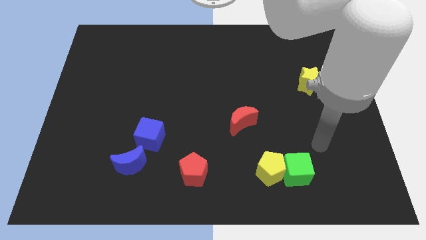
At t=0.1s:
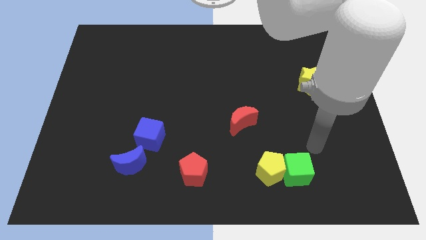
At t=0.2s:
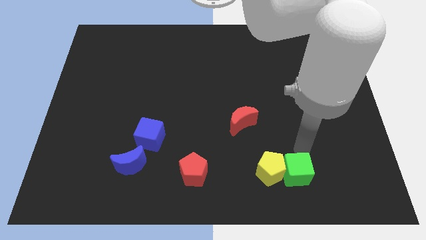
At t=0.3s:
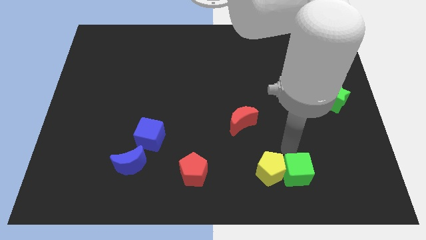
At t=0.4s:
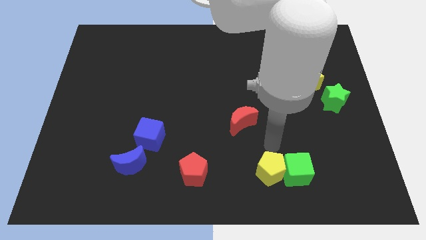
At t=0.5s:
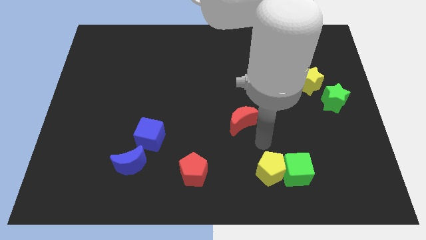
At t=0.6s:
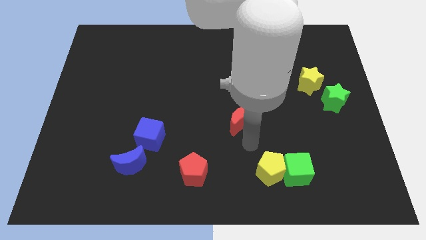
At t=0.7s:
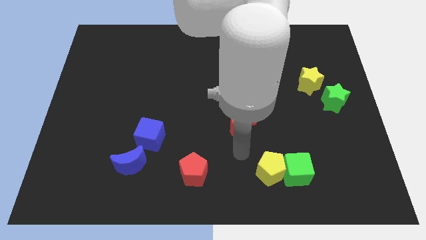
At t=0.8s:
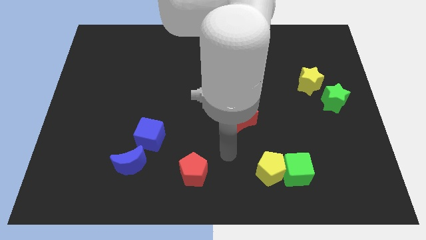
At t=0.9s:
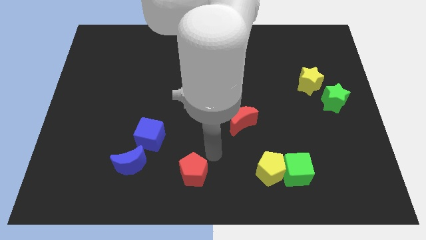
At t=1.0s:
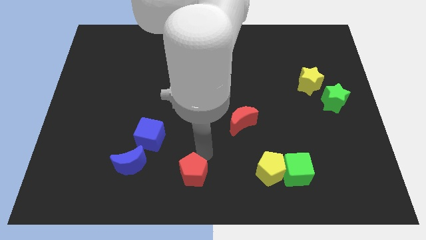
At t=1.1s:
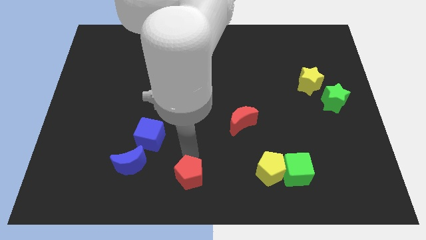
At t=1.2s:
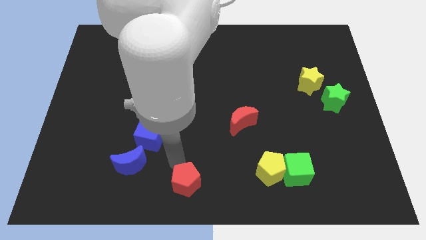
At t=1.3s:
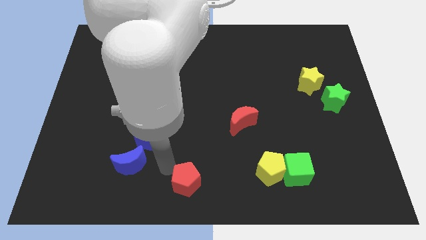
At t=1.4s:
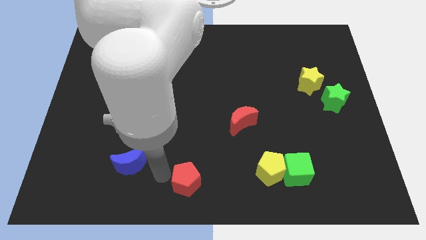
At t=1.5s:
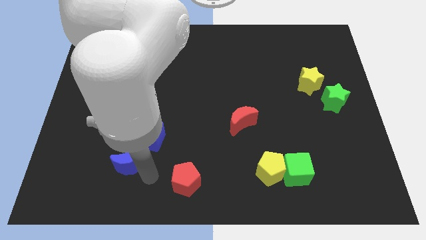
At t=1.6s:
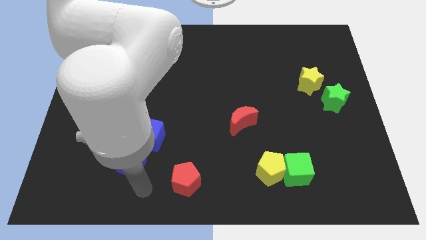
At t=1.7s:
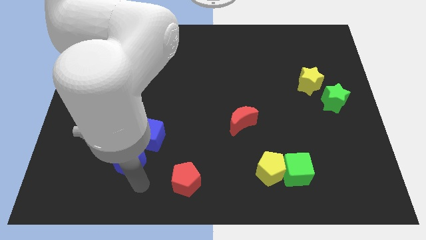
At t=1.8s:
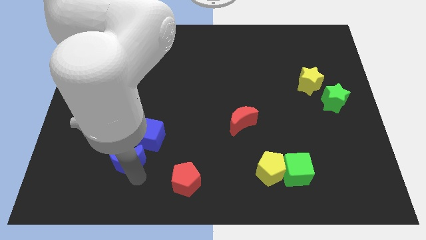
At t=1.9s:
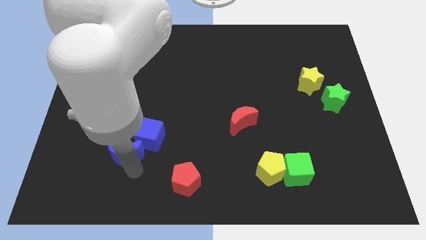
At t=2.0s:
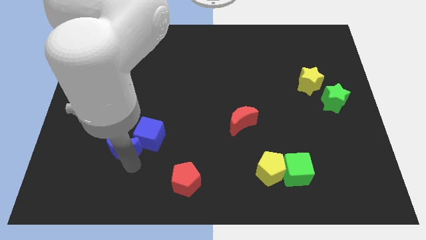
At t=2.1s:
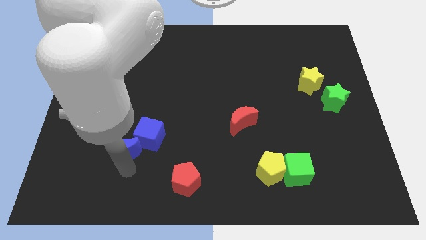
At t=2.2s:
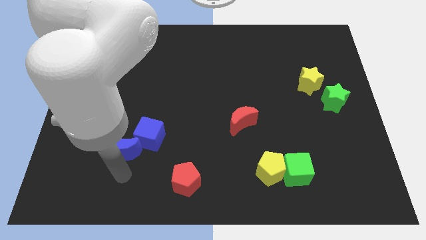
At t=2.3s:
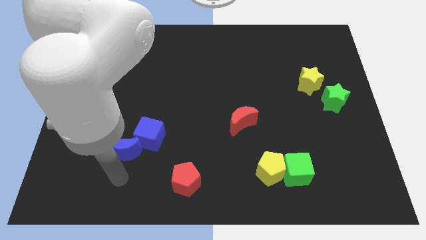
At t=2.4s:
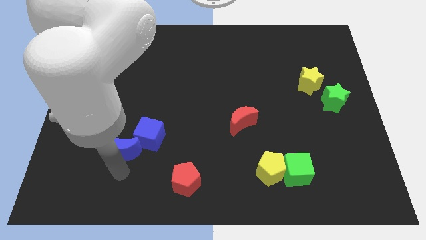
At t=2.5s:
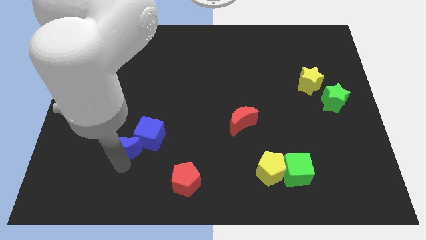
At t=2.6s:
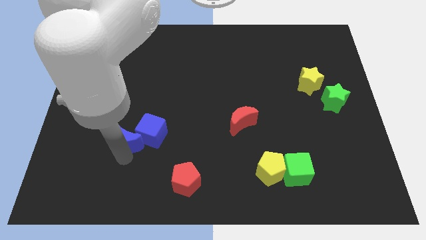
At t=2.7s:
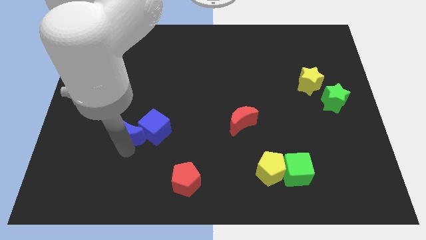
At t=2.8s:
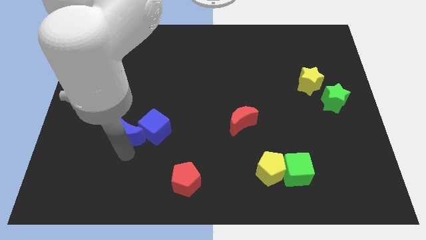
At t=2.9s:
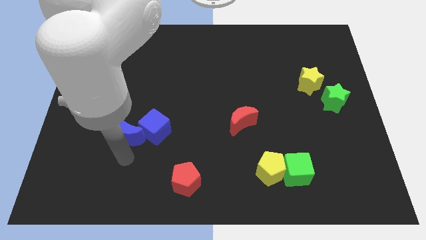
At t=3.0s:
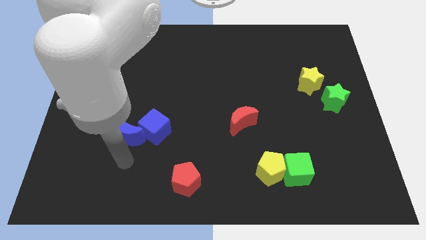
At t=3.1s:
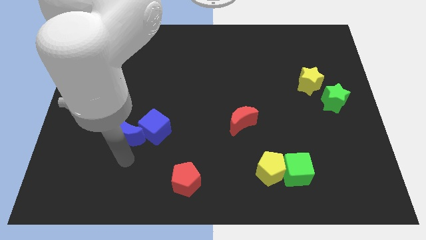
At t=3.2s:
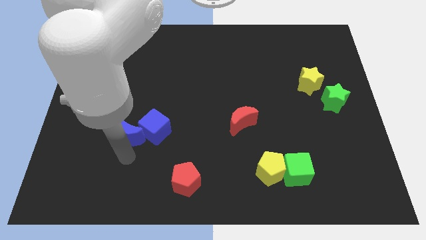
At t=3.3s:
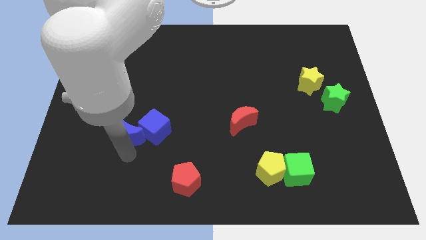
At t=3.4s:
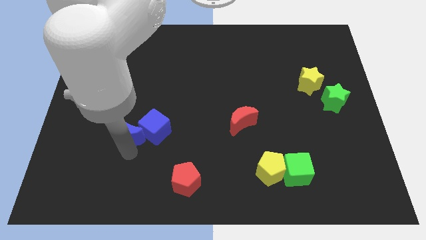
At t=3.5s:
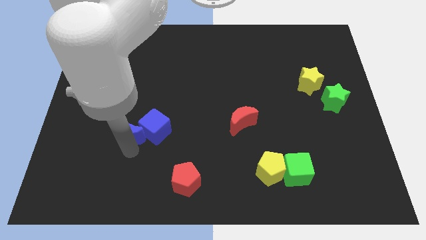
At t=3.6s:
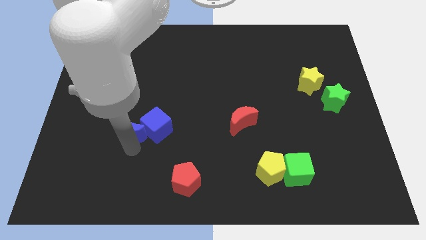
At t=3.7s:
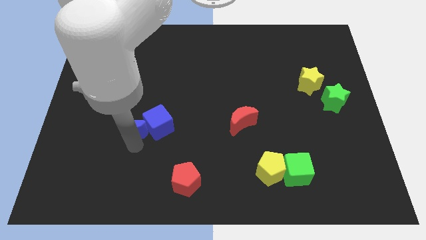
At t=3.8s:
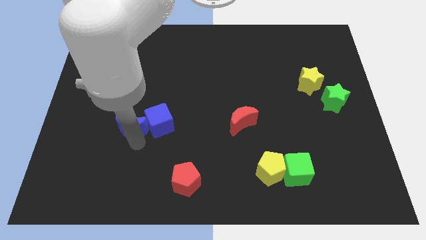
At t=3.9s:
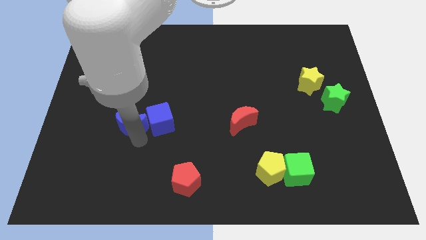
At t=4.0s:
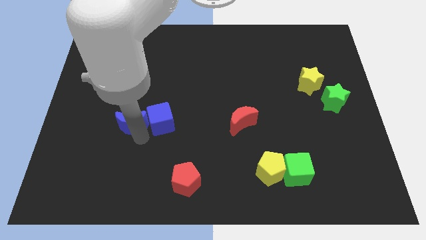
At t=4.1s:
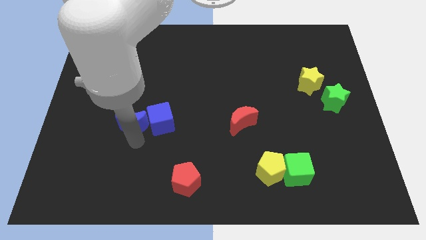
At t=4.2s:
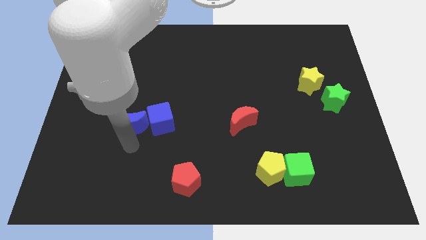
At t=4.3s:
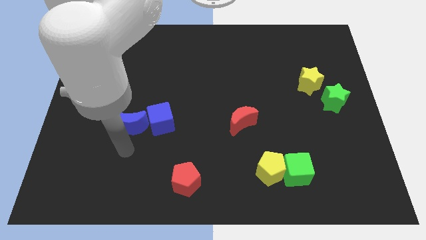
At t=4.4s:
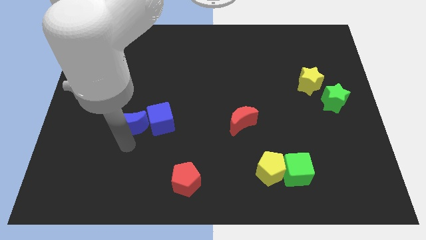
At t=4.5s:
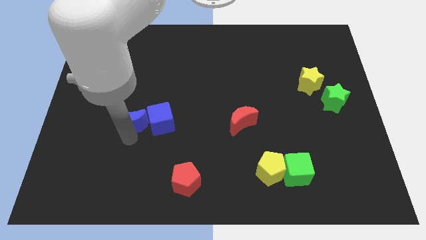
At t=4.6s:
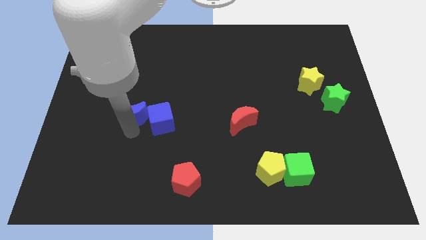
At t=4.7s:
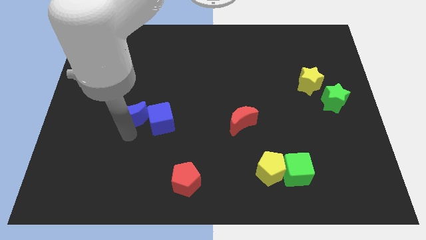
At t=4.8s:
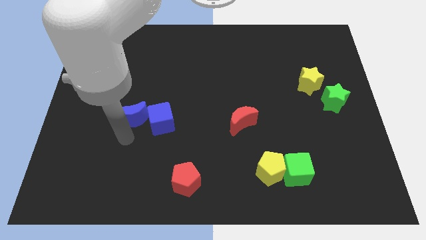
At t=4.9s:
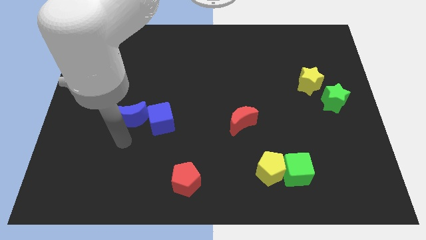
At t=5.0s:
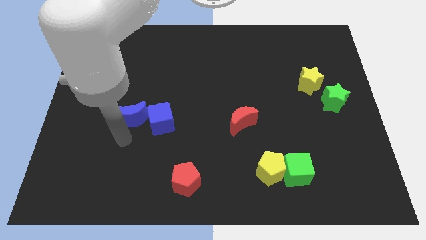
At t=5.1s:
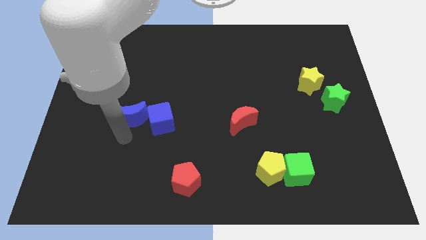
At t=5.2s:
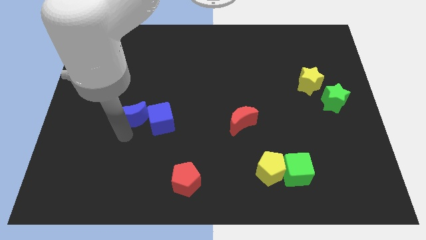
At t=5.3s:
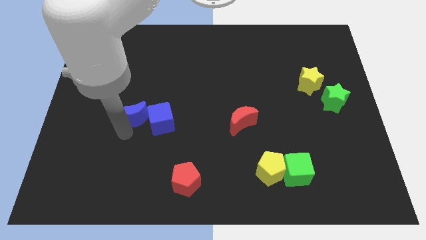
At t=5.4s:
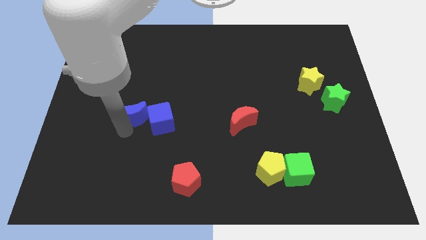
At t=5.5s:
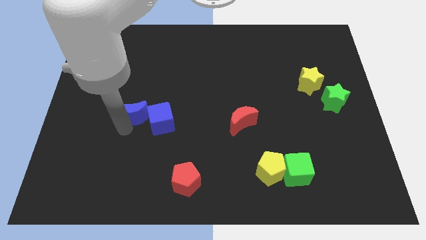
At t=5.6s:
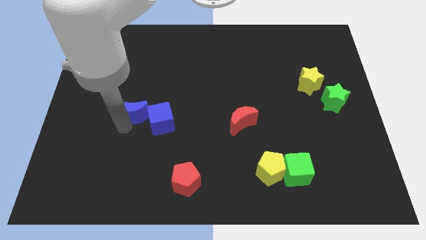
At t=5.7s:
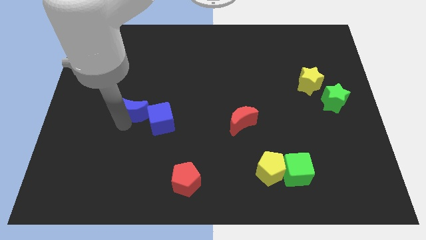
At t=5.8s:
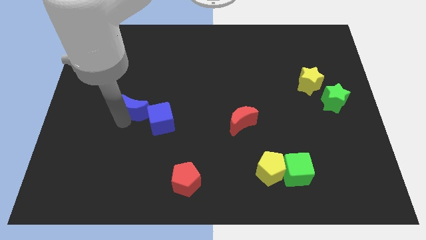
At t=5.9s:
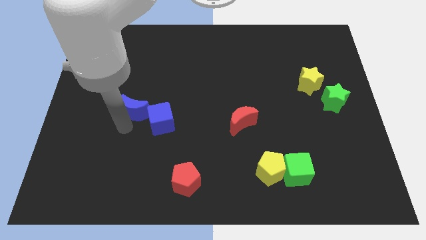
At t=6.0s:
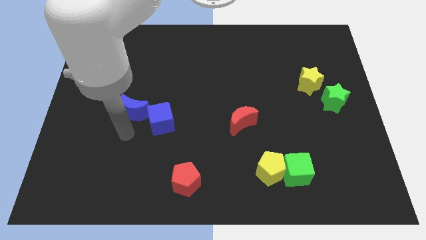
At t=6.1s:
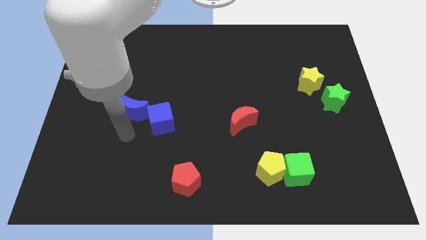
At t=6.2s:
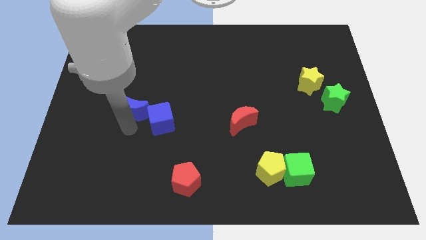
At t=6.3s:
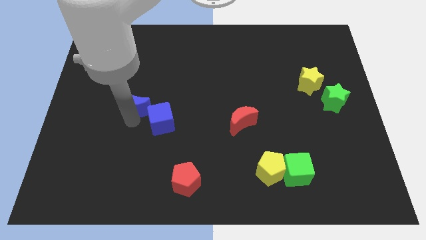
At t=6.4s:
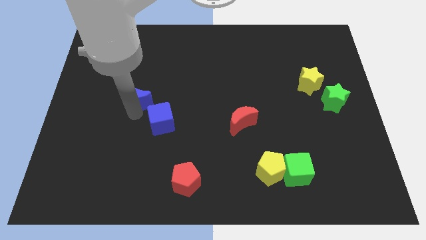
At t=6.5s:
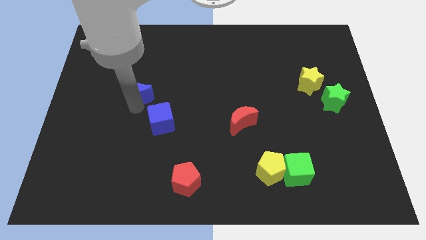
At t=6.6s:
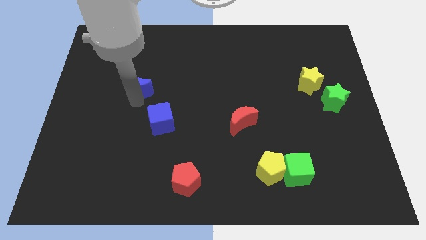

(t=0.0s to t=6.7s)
push the blue moon up

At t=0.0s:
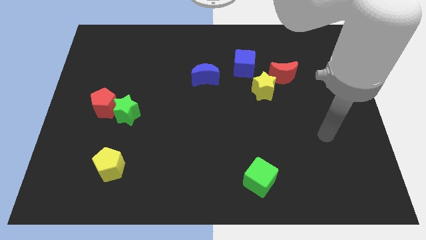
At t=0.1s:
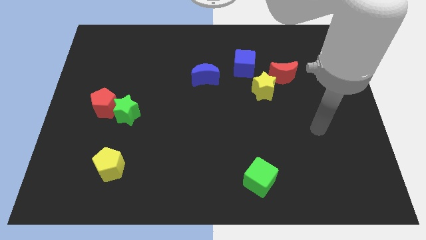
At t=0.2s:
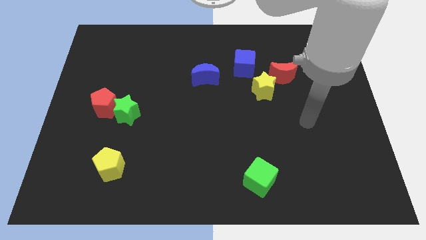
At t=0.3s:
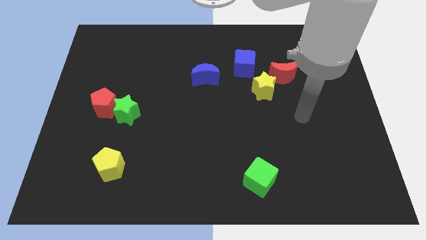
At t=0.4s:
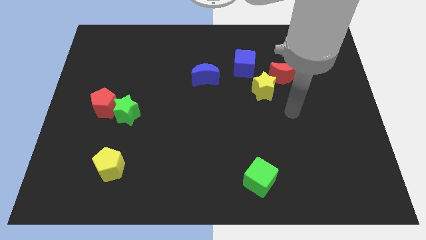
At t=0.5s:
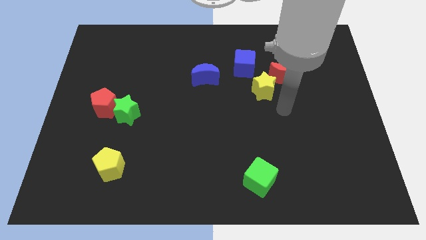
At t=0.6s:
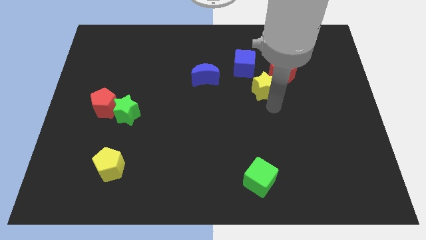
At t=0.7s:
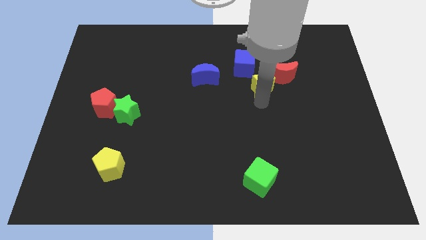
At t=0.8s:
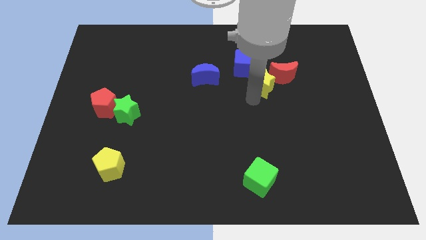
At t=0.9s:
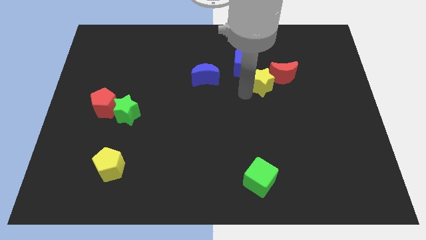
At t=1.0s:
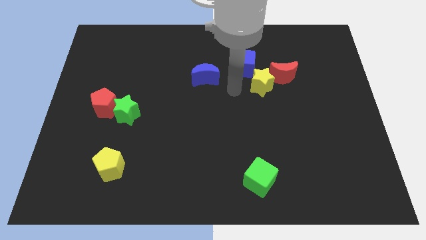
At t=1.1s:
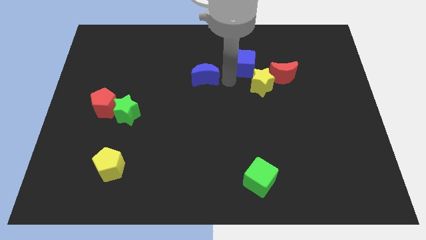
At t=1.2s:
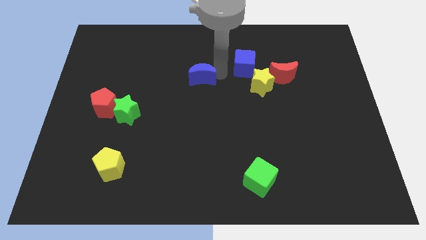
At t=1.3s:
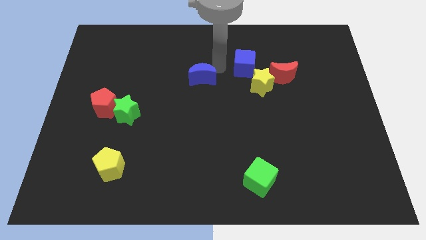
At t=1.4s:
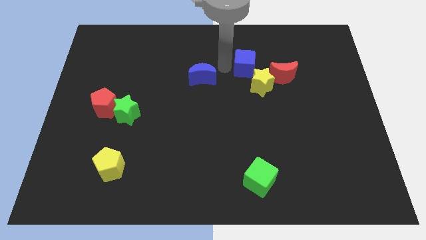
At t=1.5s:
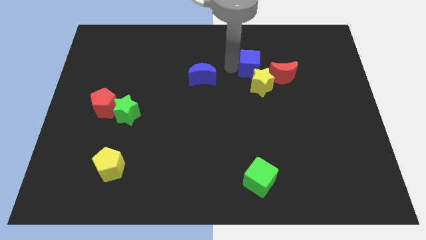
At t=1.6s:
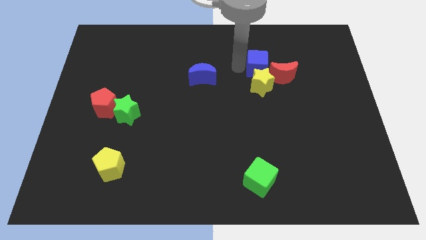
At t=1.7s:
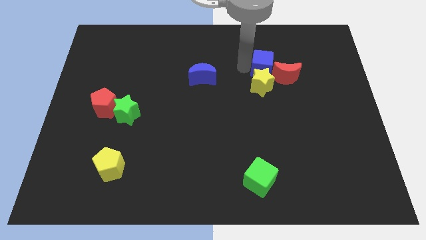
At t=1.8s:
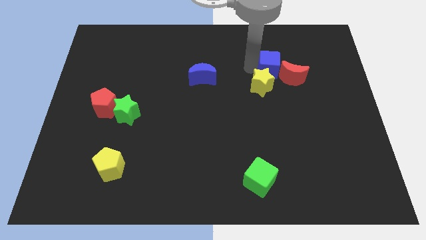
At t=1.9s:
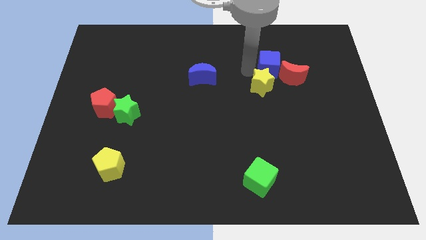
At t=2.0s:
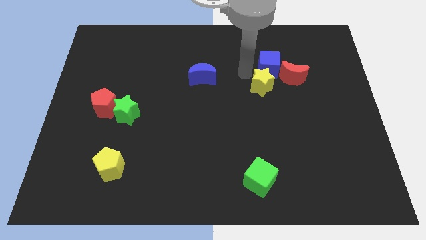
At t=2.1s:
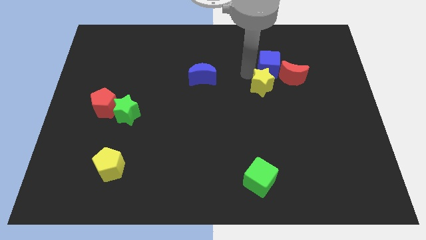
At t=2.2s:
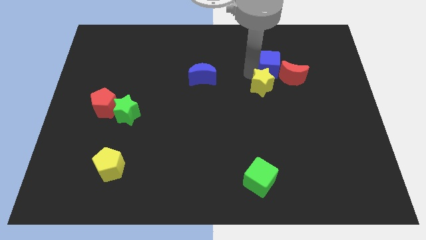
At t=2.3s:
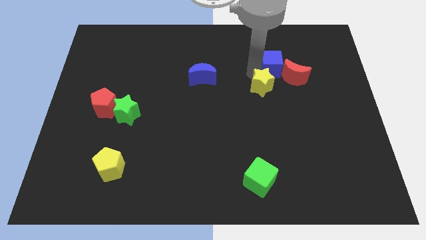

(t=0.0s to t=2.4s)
push the blue cube a little right
